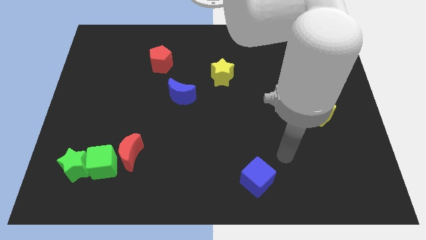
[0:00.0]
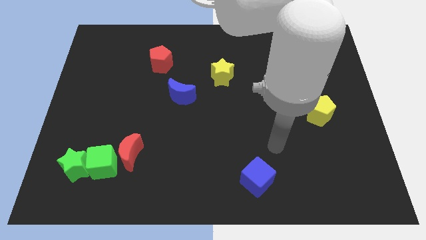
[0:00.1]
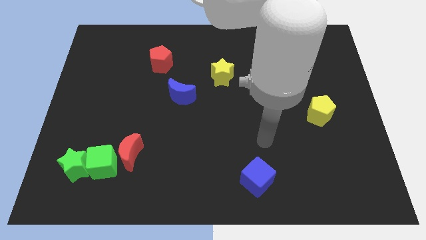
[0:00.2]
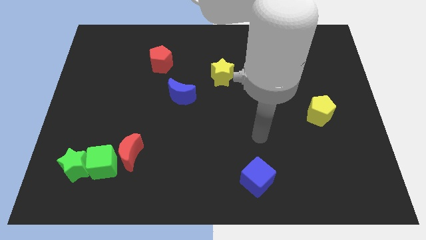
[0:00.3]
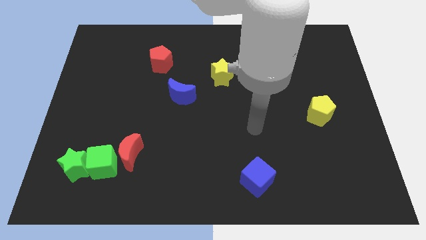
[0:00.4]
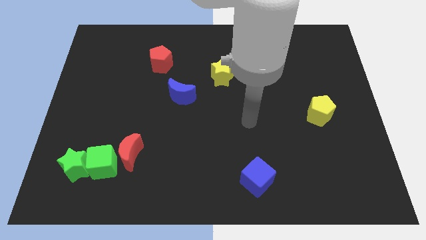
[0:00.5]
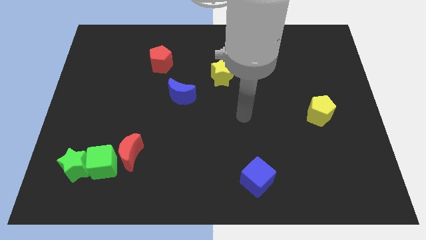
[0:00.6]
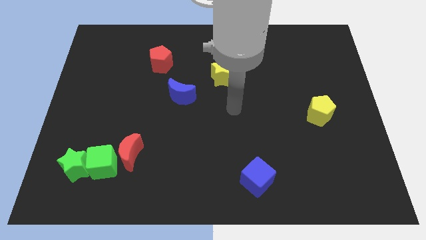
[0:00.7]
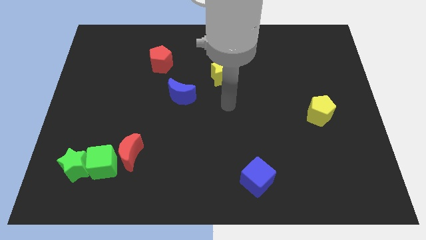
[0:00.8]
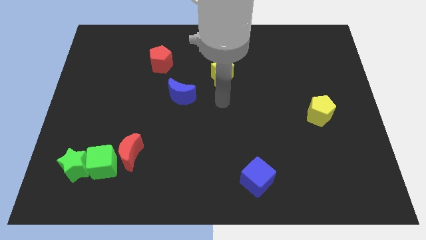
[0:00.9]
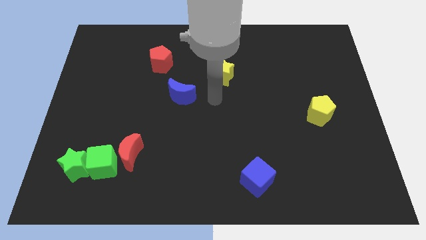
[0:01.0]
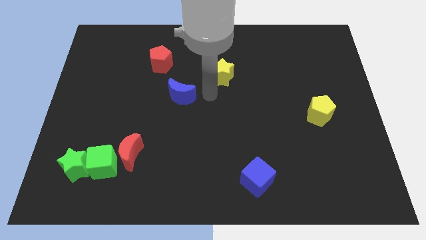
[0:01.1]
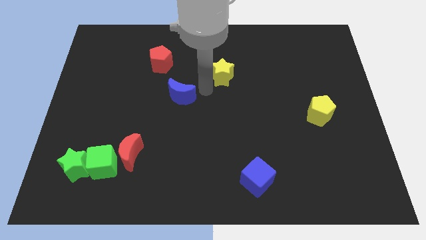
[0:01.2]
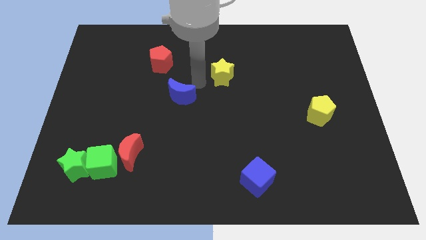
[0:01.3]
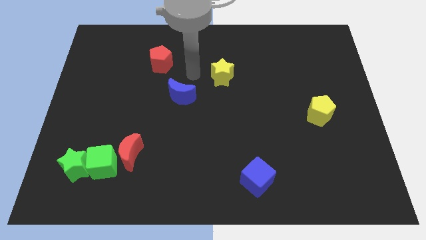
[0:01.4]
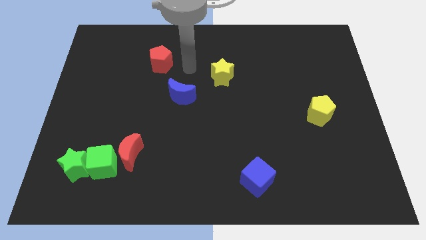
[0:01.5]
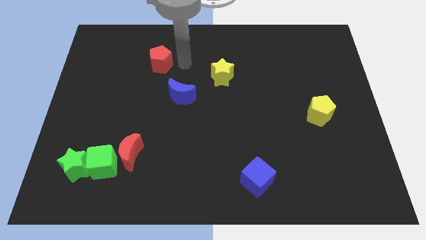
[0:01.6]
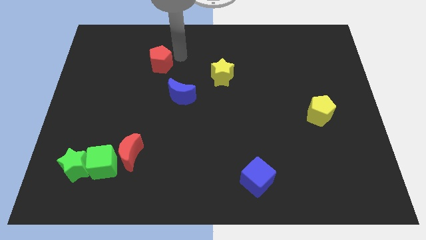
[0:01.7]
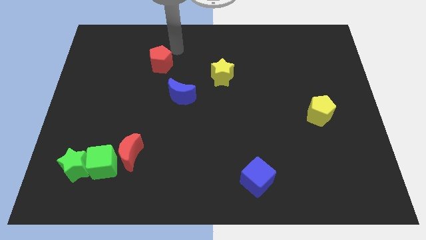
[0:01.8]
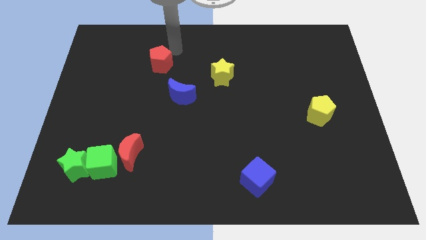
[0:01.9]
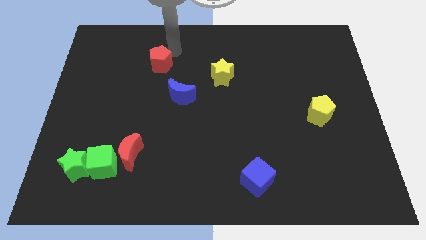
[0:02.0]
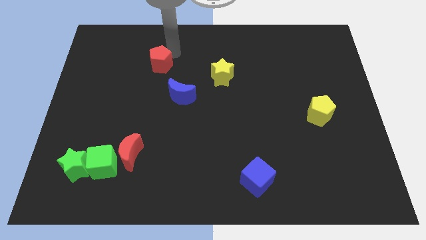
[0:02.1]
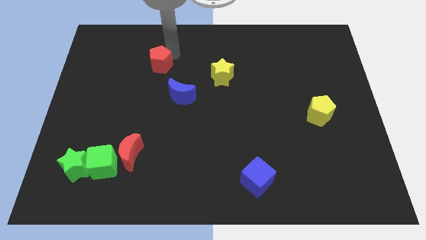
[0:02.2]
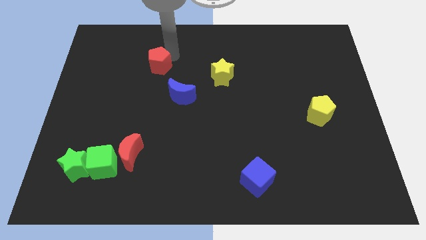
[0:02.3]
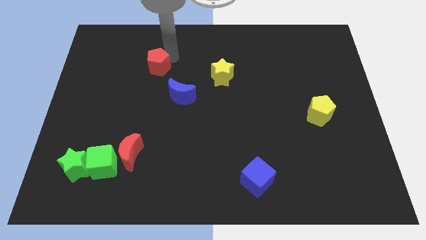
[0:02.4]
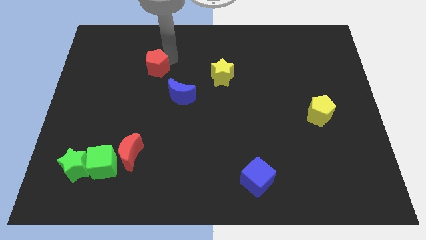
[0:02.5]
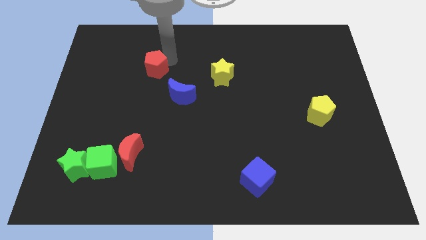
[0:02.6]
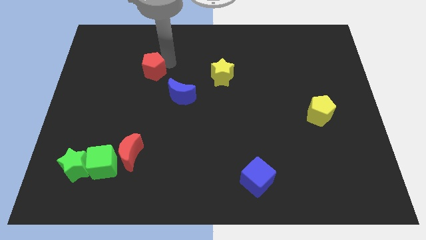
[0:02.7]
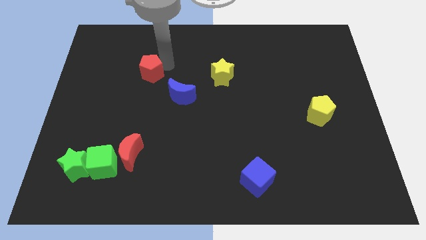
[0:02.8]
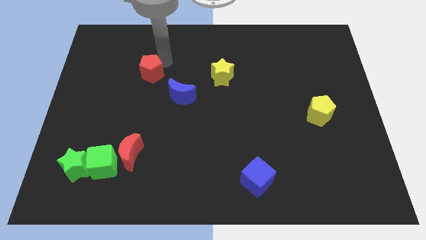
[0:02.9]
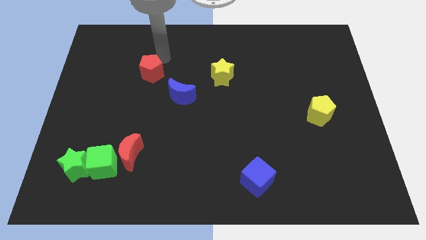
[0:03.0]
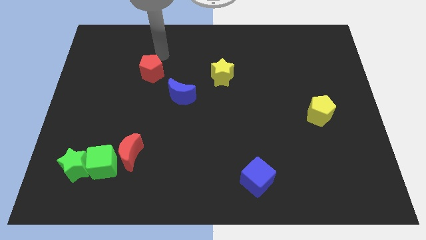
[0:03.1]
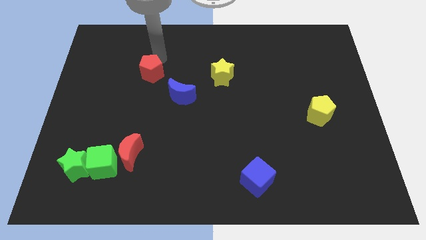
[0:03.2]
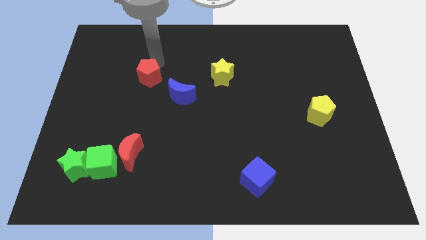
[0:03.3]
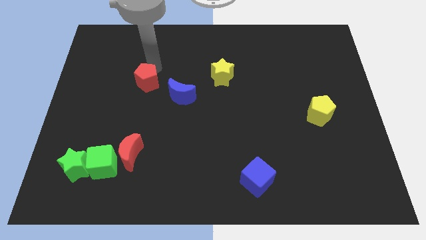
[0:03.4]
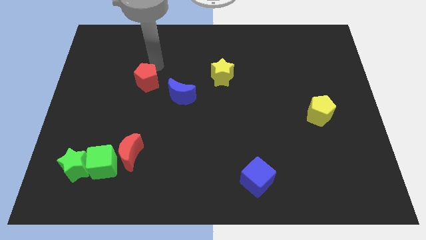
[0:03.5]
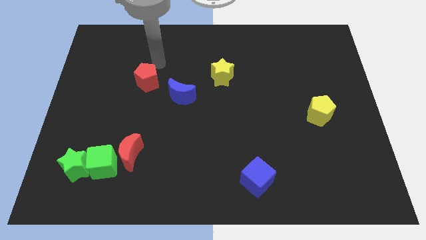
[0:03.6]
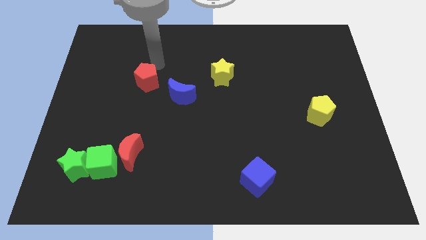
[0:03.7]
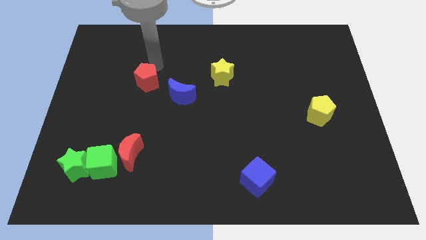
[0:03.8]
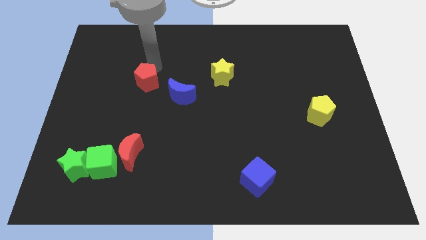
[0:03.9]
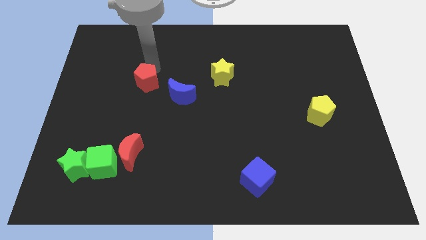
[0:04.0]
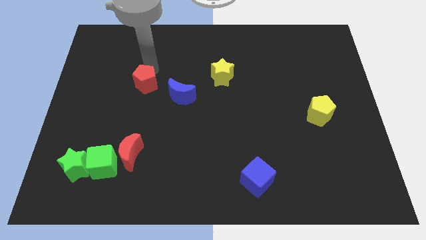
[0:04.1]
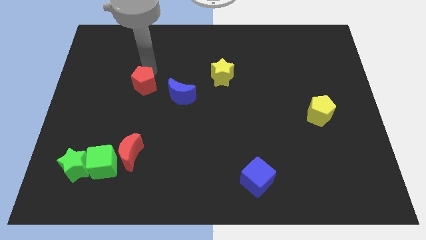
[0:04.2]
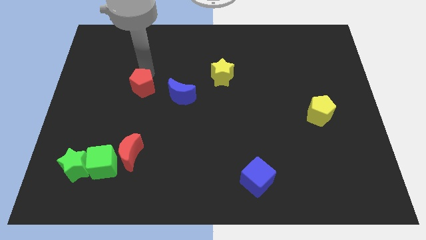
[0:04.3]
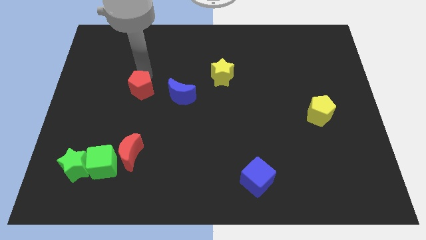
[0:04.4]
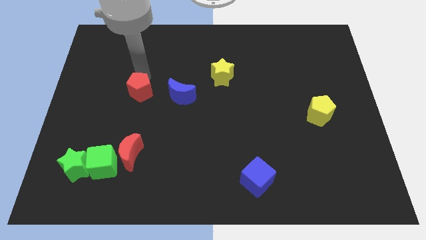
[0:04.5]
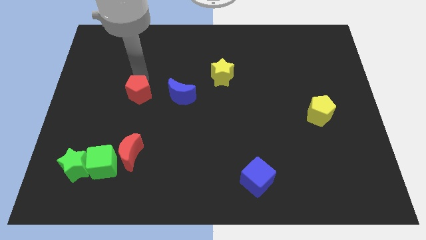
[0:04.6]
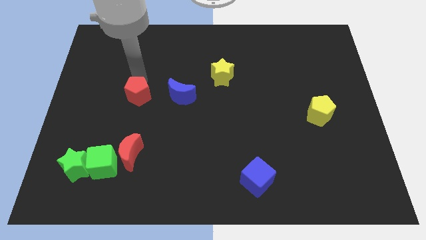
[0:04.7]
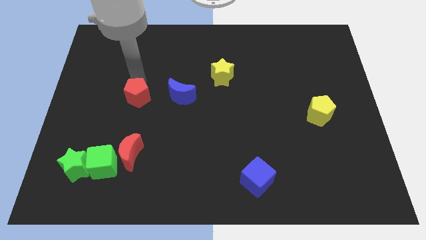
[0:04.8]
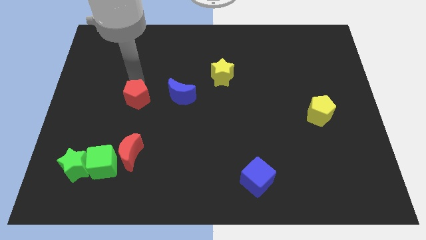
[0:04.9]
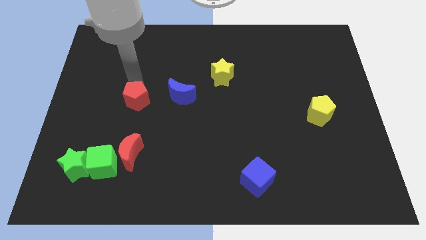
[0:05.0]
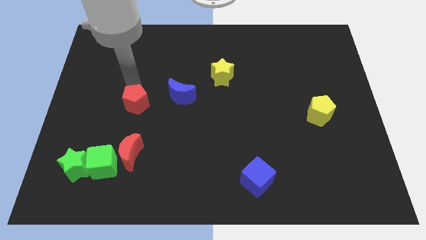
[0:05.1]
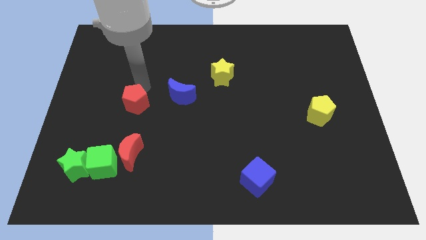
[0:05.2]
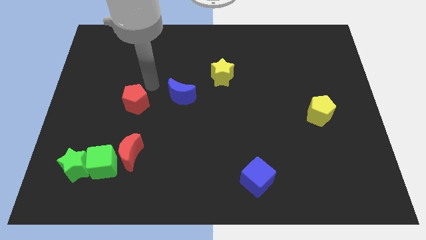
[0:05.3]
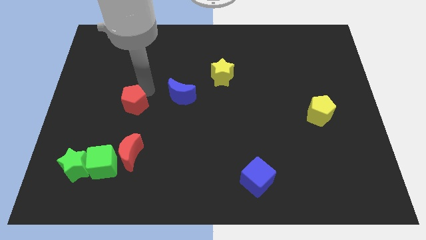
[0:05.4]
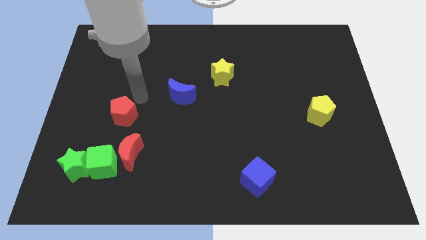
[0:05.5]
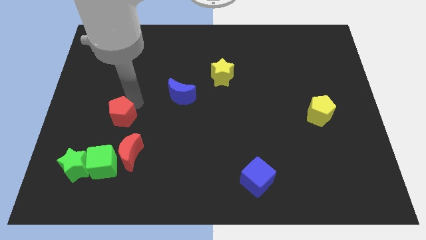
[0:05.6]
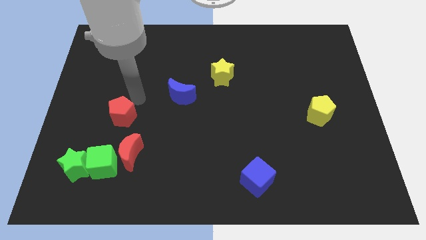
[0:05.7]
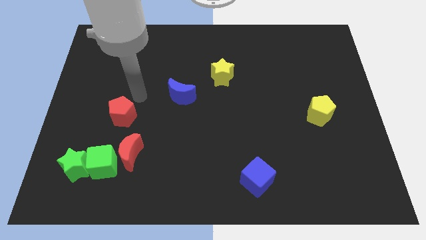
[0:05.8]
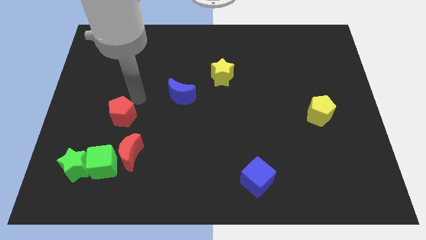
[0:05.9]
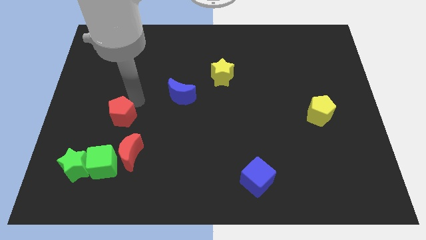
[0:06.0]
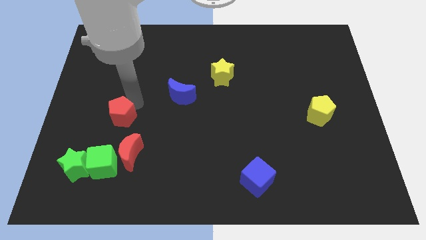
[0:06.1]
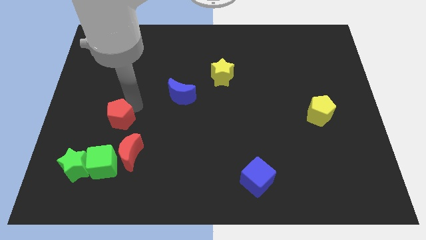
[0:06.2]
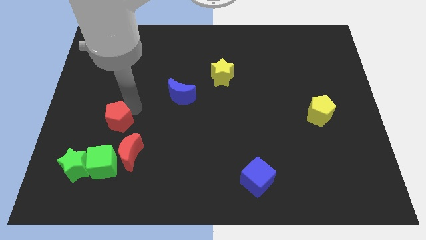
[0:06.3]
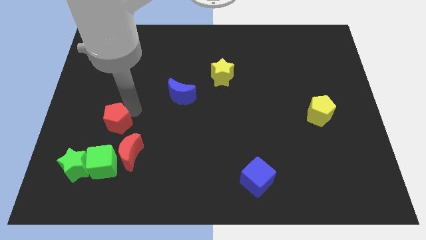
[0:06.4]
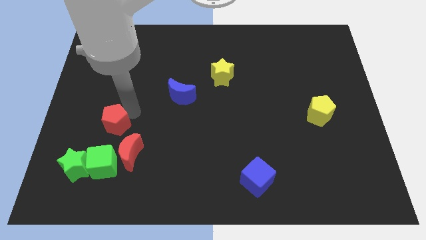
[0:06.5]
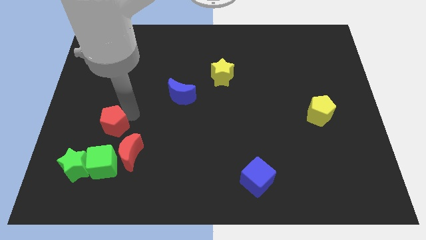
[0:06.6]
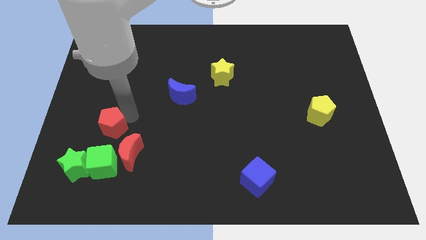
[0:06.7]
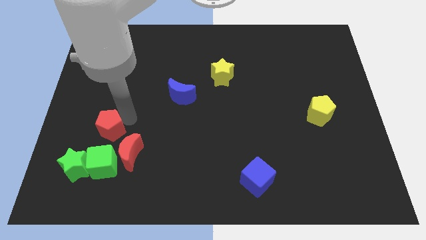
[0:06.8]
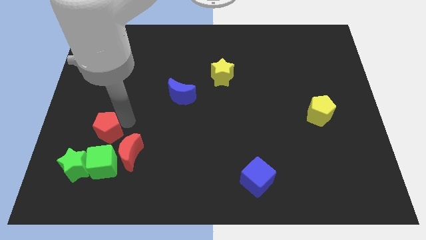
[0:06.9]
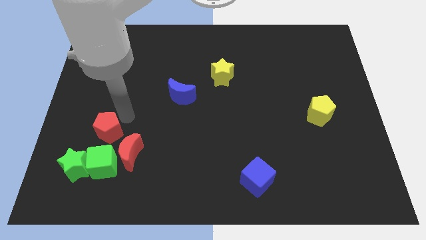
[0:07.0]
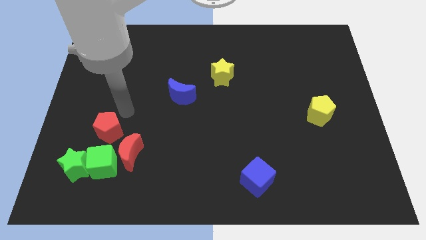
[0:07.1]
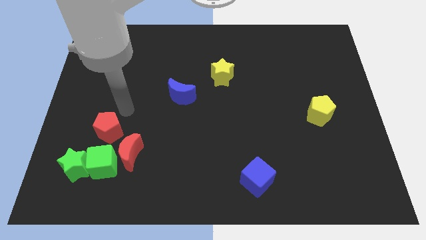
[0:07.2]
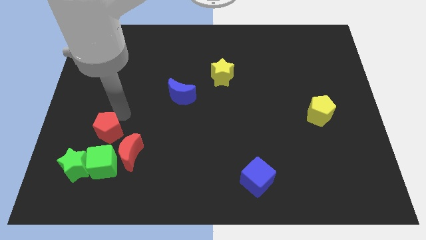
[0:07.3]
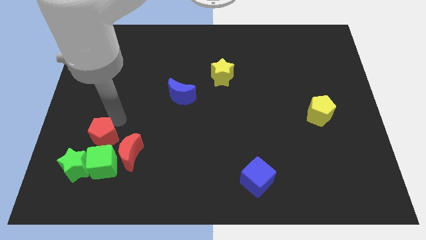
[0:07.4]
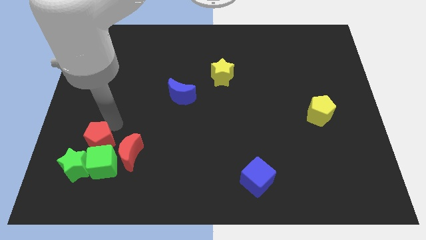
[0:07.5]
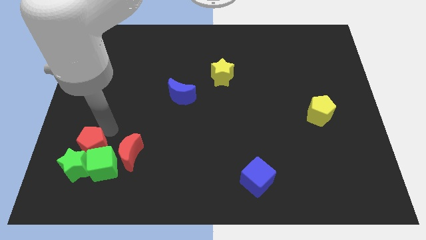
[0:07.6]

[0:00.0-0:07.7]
move the red pentagon next to the green star

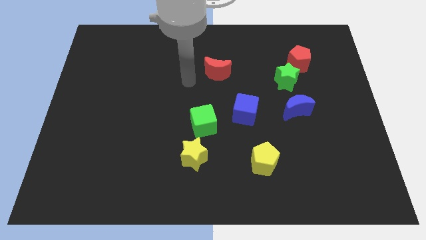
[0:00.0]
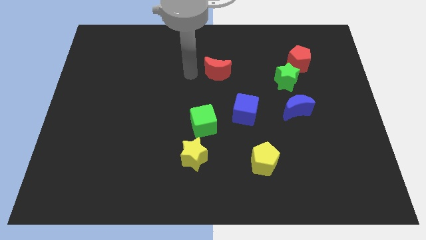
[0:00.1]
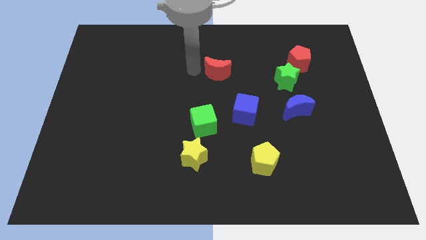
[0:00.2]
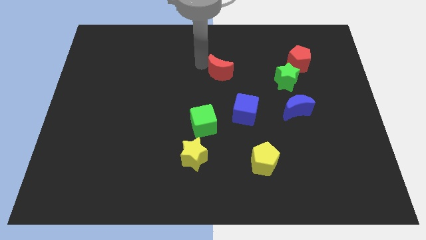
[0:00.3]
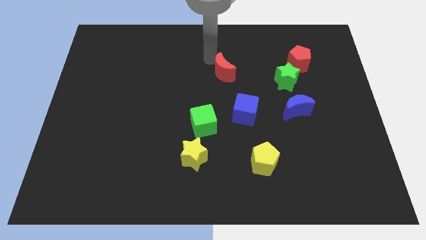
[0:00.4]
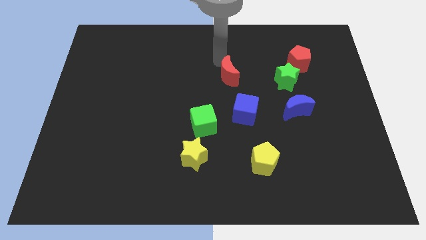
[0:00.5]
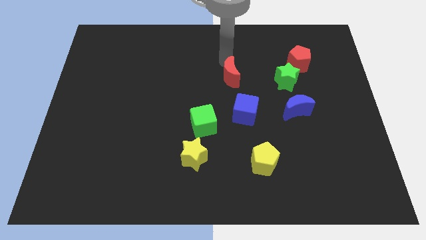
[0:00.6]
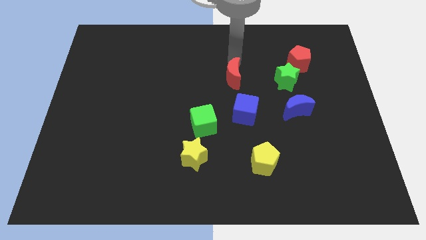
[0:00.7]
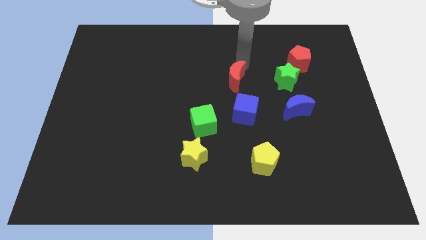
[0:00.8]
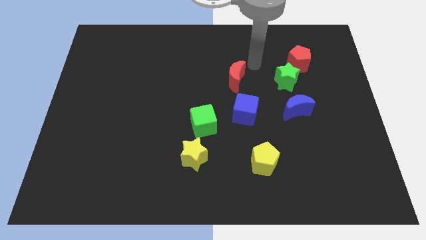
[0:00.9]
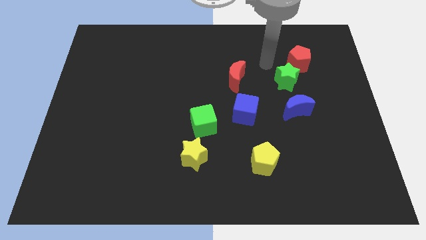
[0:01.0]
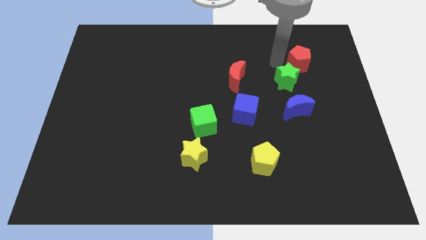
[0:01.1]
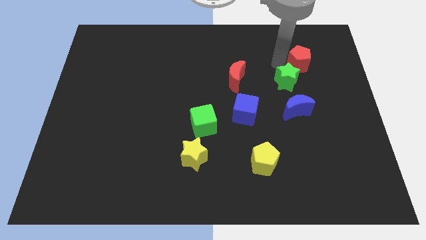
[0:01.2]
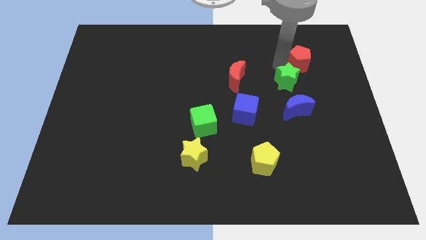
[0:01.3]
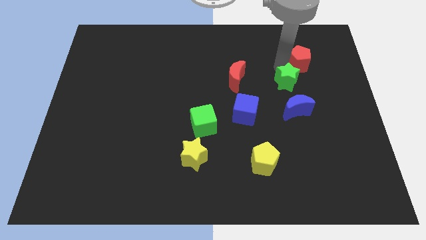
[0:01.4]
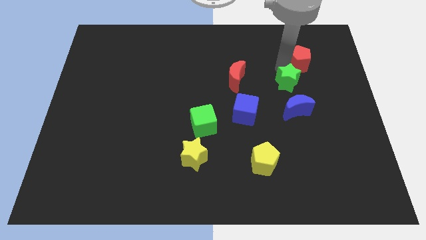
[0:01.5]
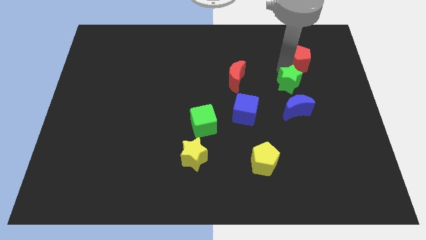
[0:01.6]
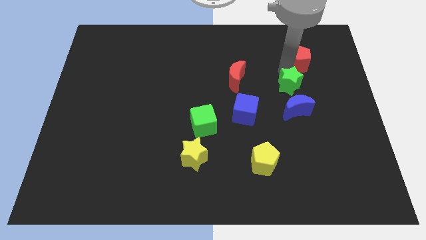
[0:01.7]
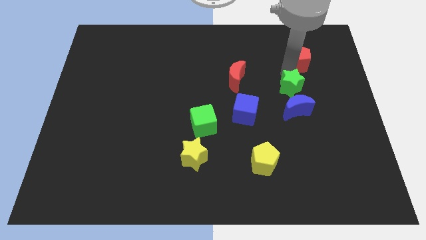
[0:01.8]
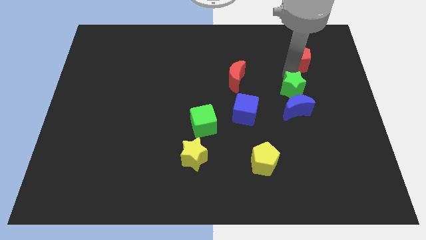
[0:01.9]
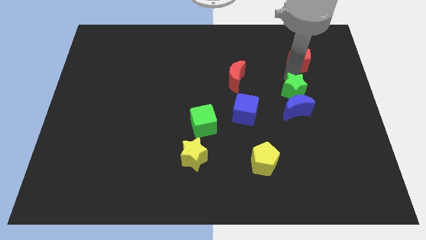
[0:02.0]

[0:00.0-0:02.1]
put the green star next to the blue moon
